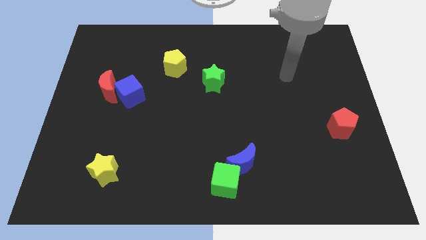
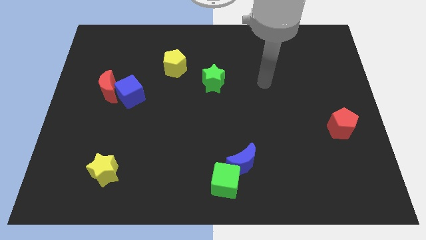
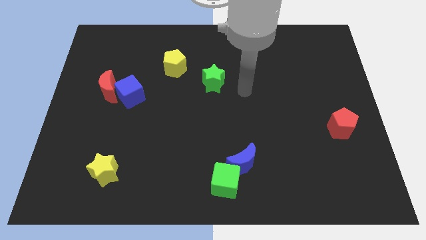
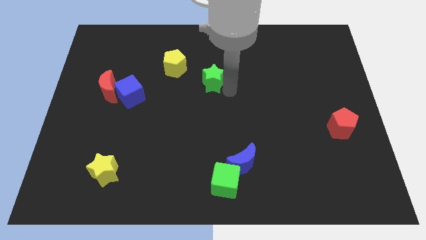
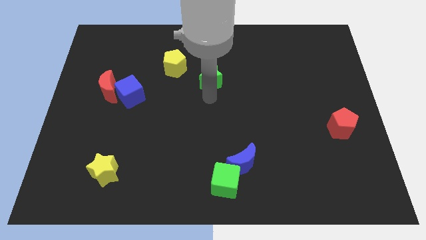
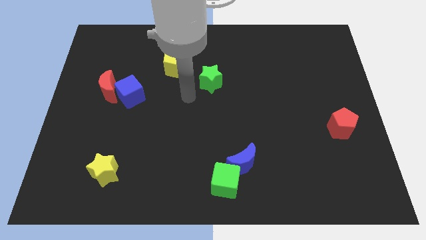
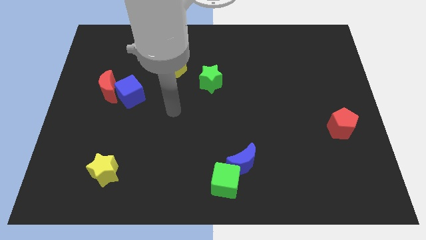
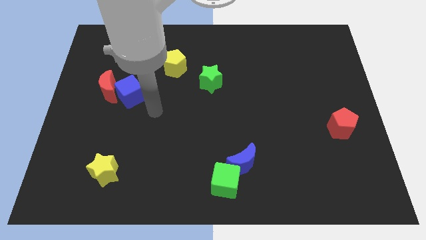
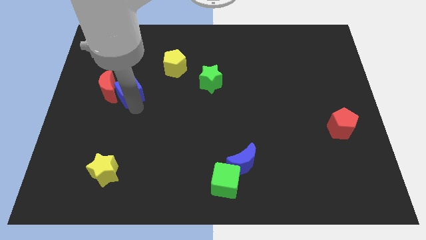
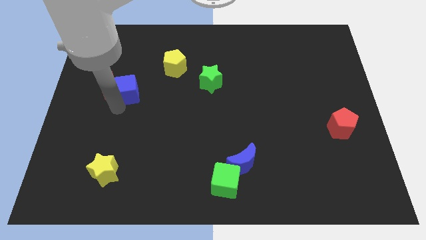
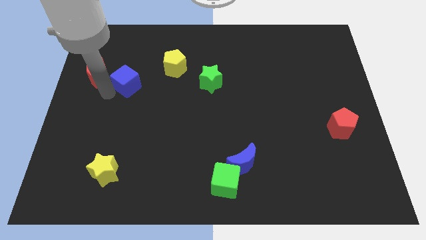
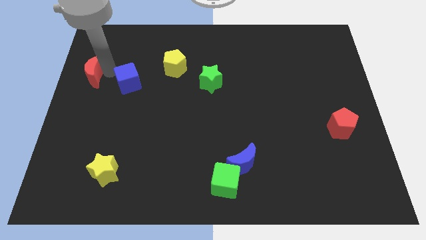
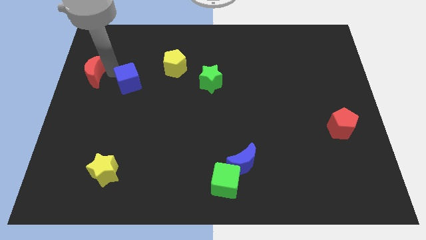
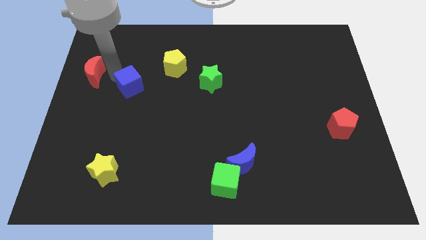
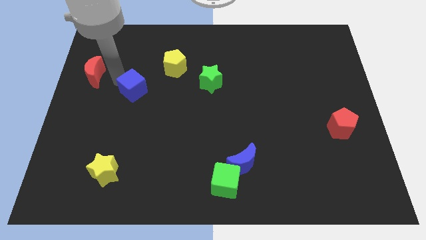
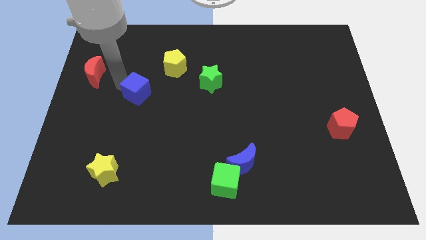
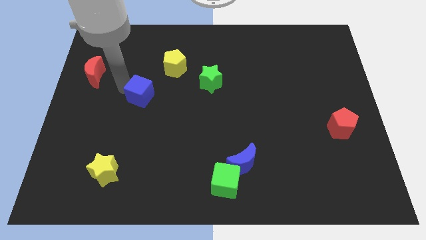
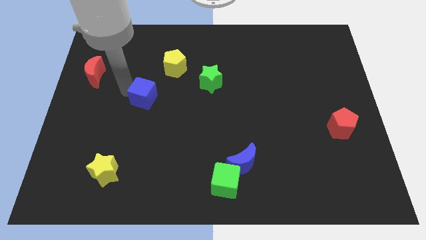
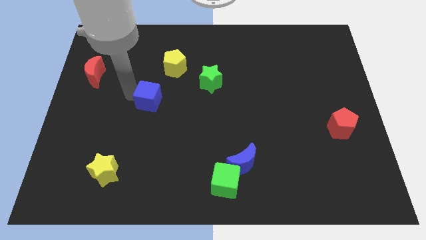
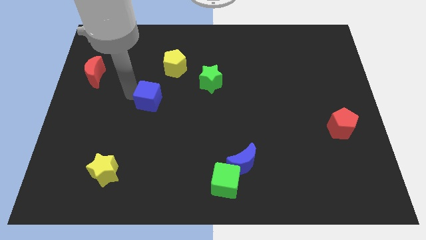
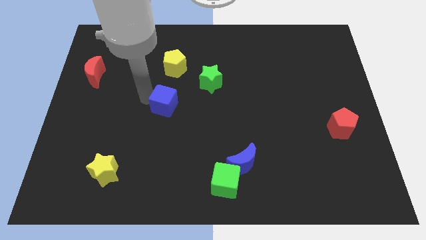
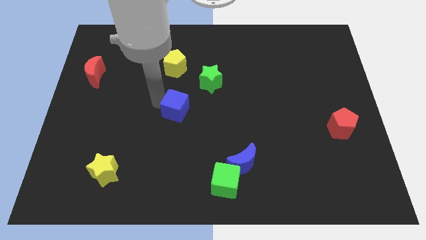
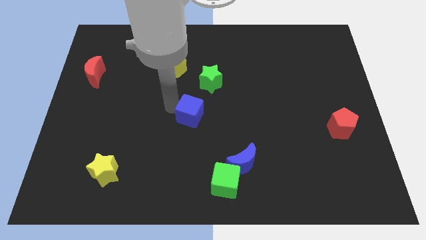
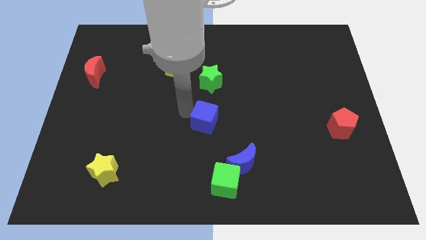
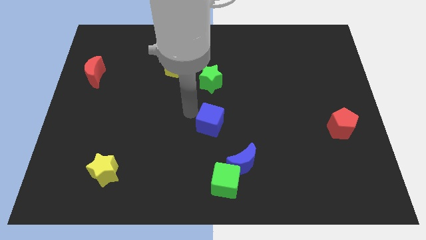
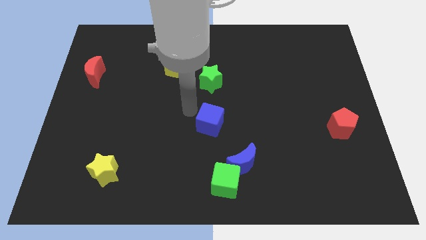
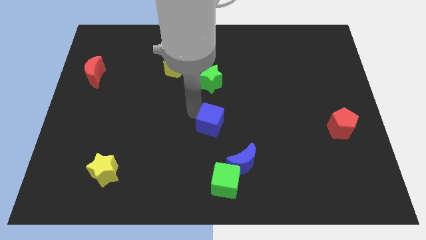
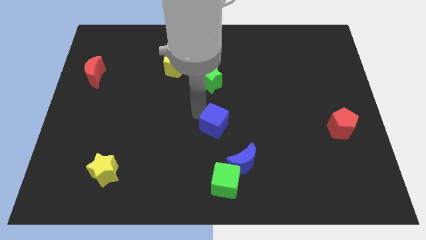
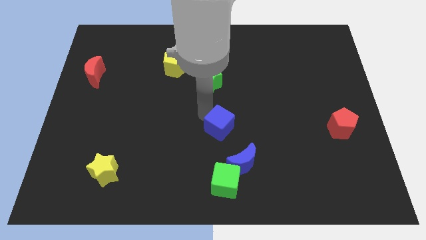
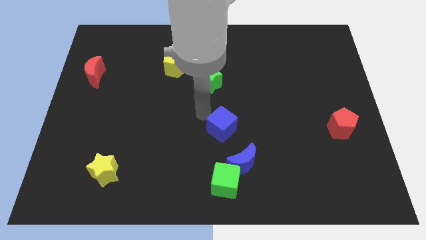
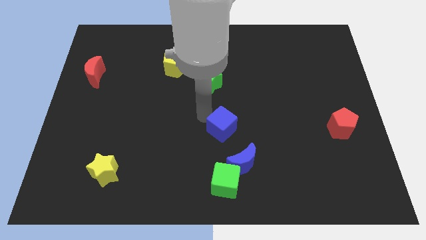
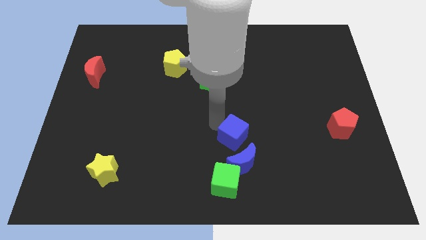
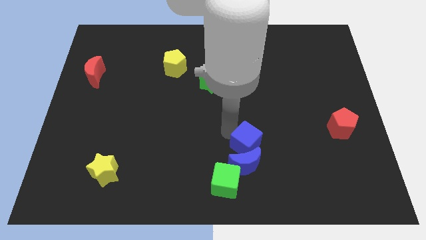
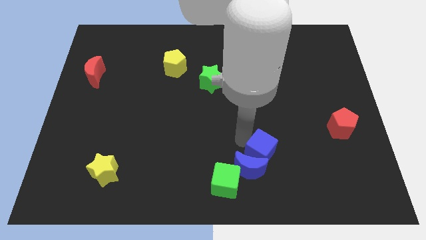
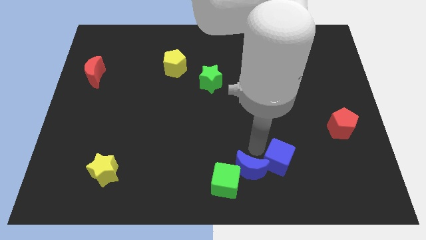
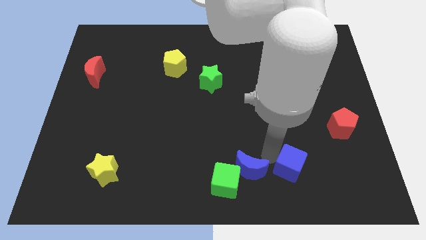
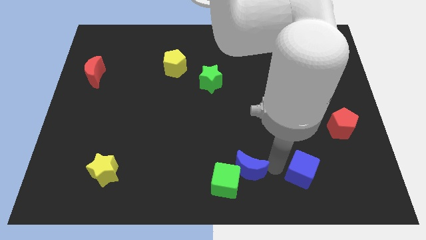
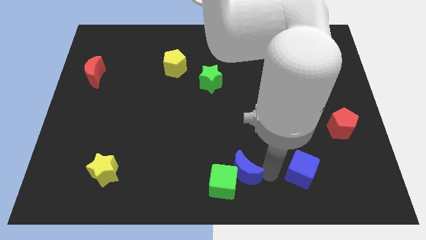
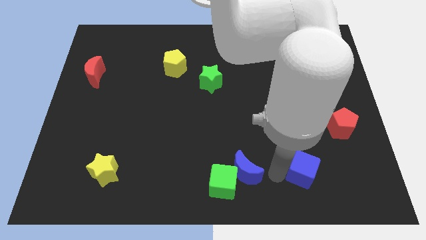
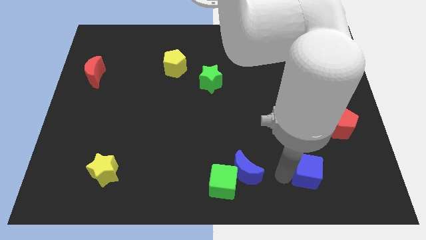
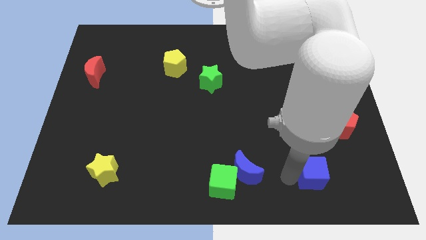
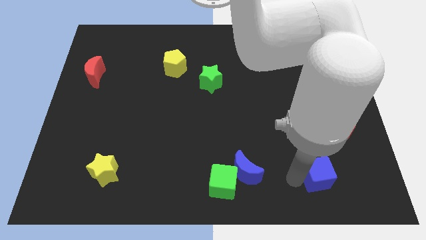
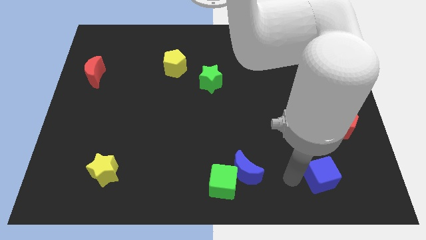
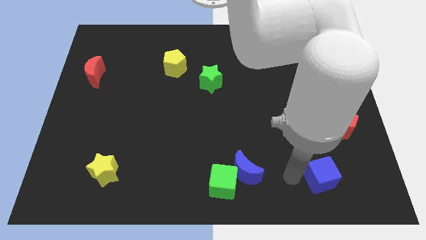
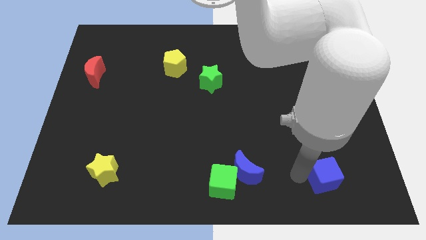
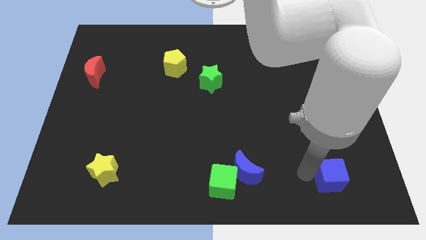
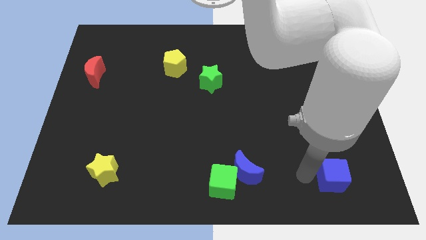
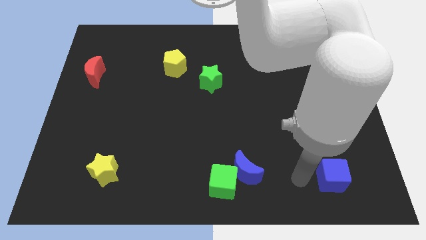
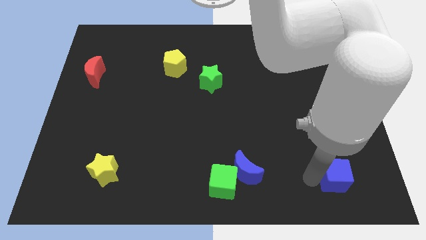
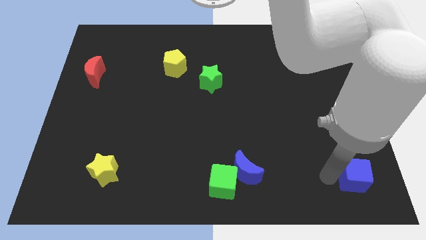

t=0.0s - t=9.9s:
put the blue cube to the bottom right corner

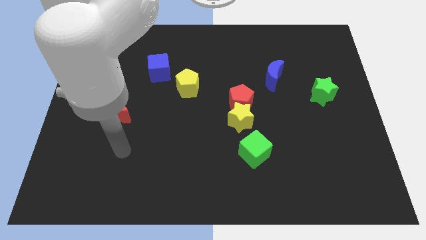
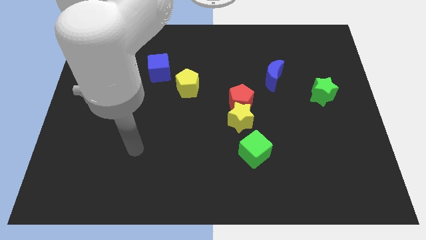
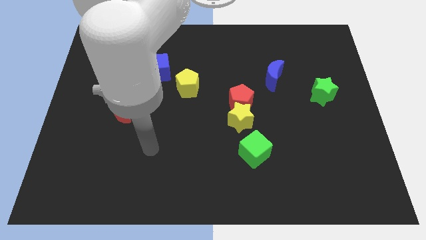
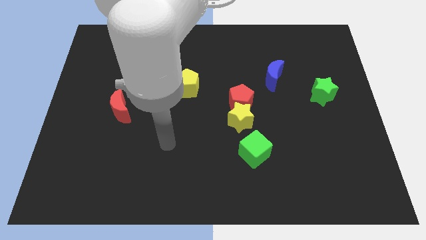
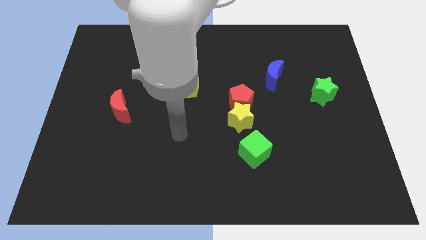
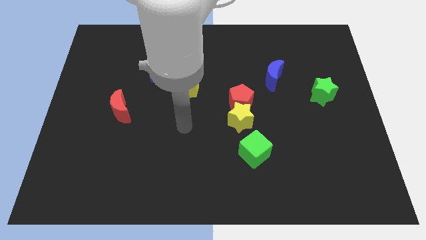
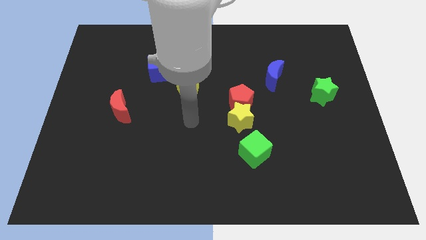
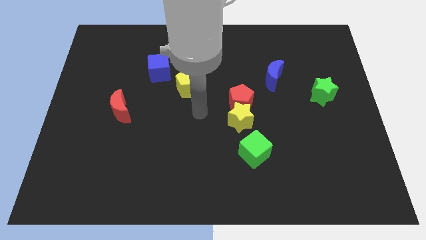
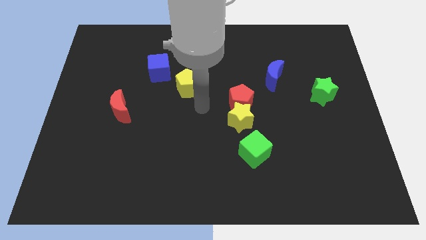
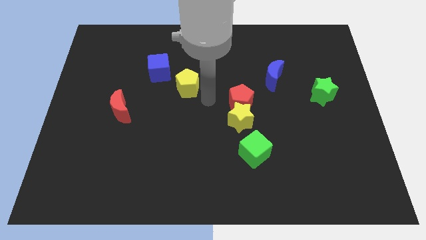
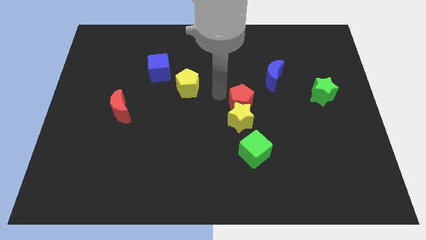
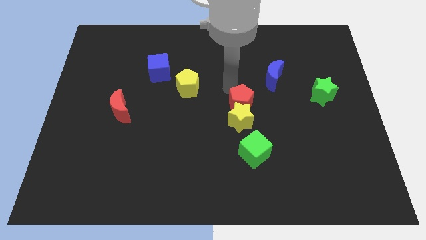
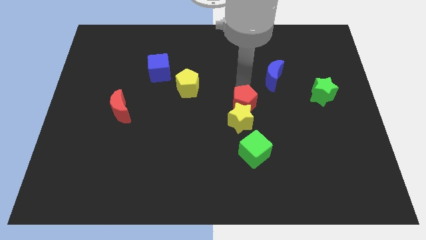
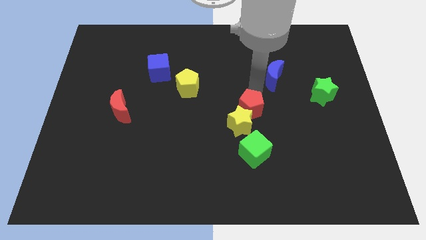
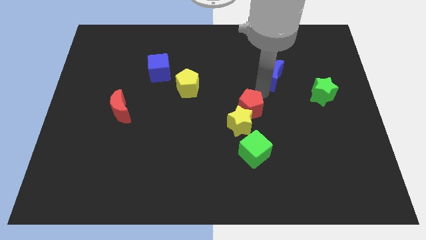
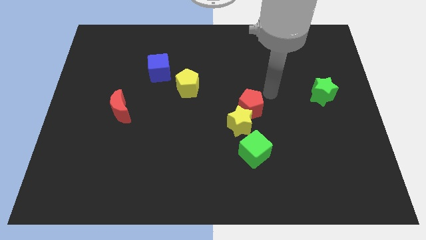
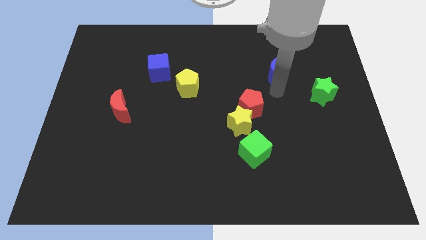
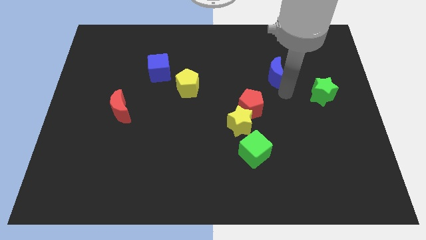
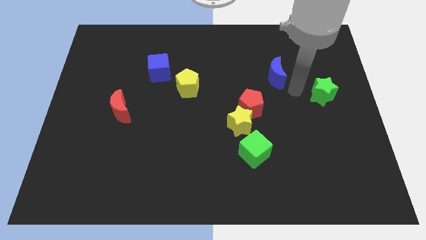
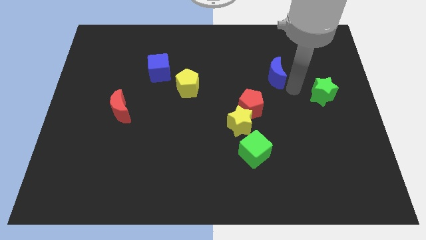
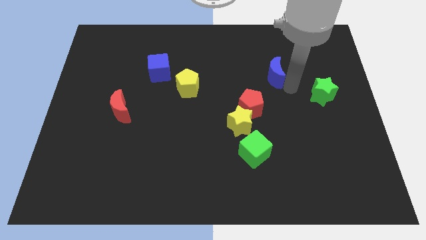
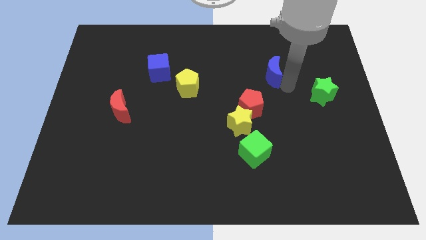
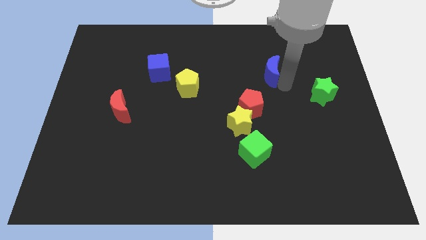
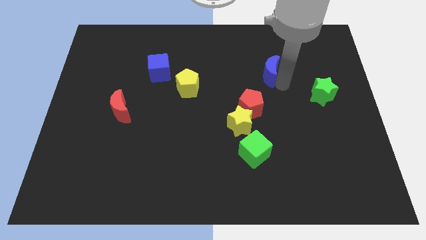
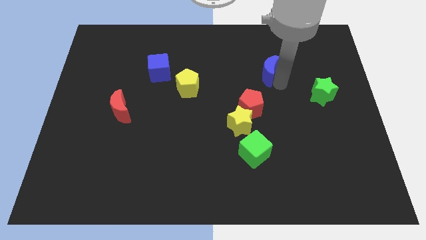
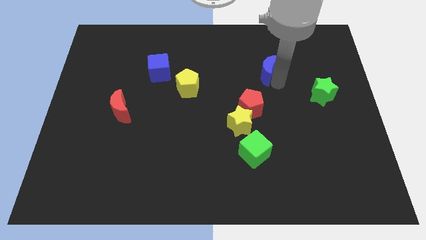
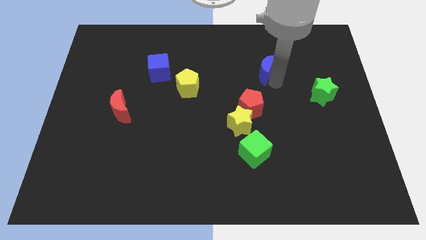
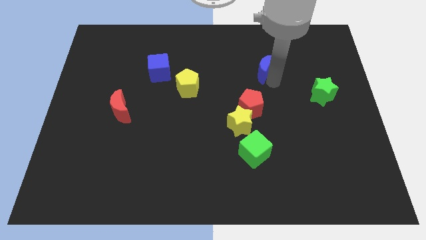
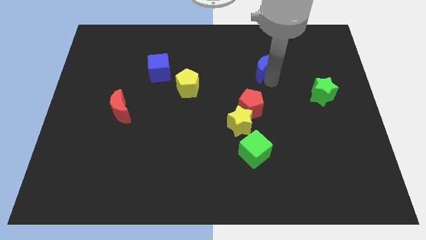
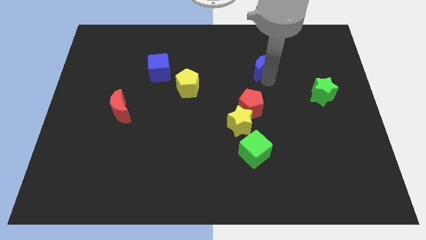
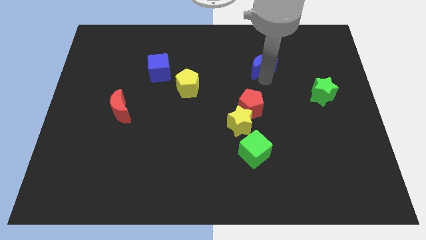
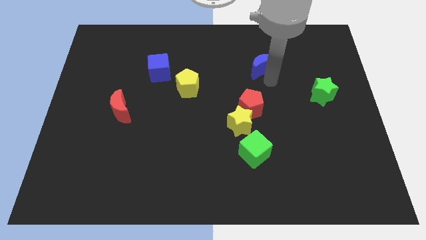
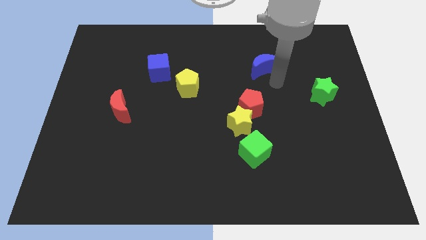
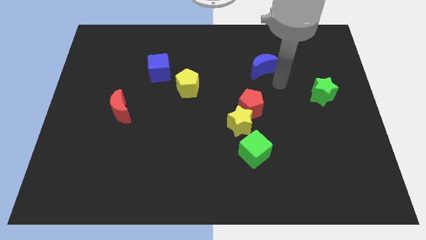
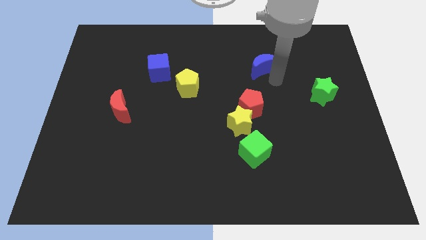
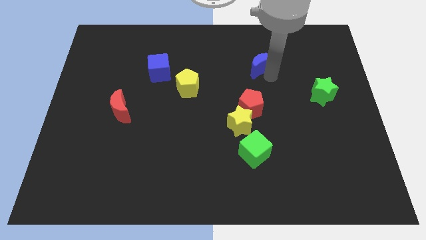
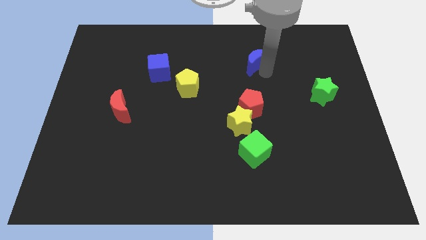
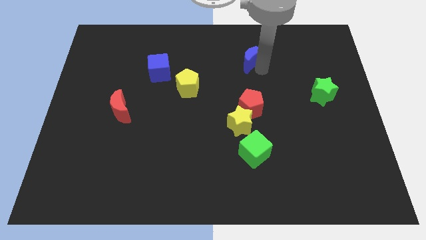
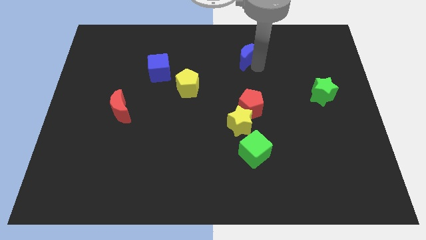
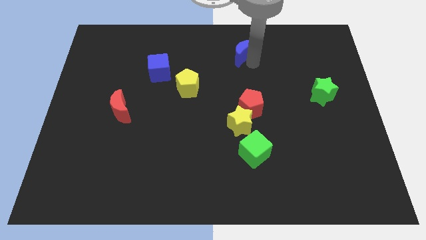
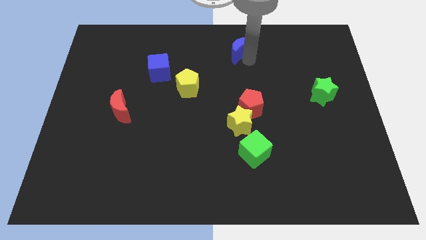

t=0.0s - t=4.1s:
slide the blue moon to the top
